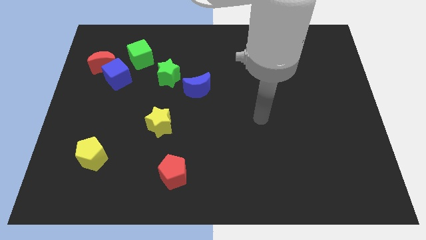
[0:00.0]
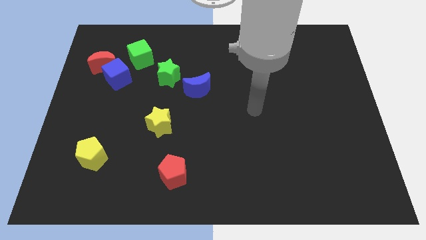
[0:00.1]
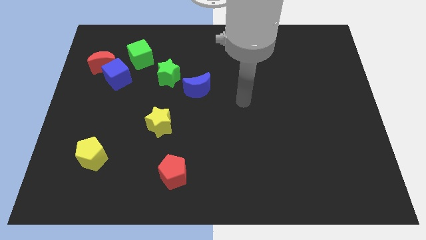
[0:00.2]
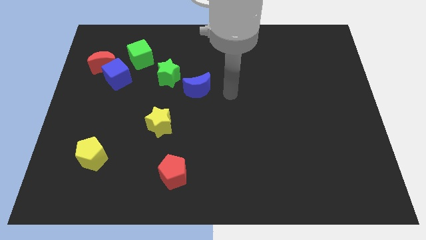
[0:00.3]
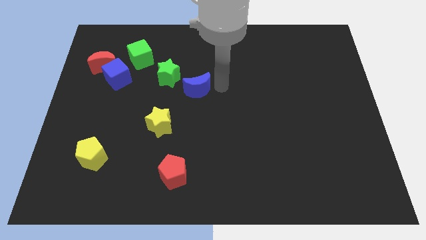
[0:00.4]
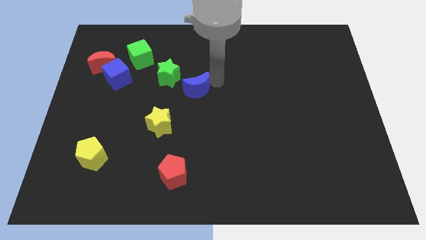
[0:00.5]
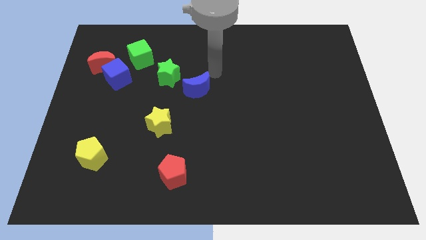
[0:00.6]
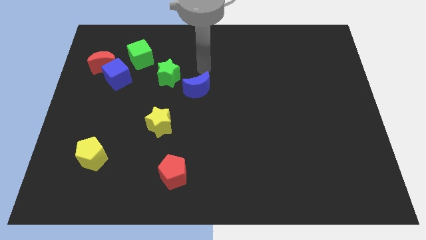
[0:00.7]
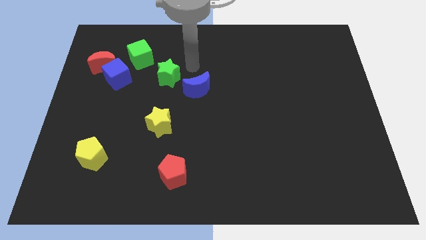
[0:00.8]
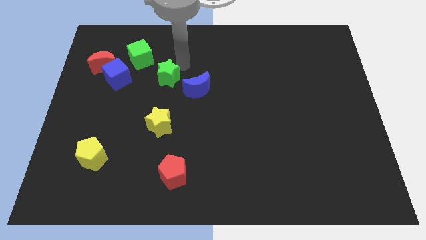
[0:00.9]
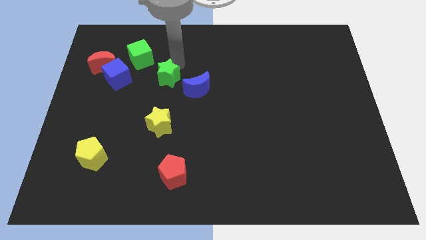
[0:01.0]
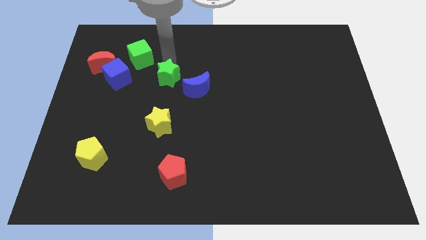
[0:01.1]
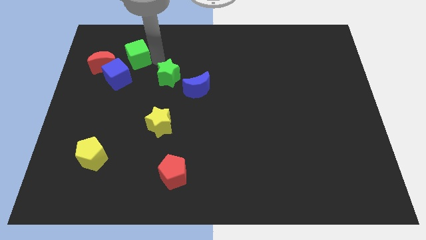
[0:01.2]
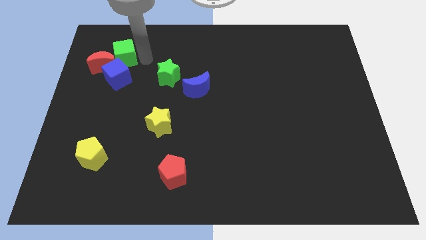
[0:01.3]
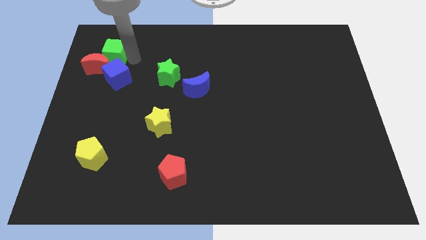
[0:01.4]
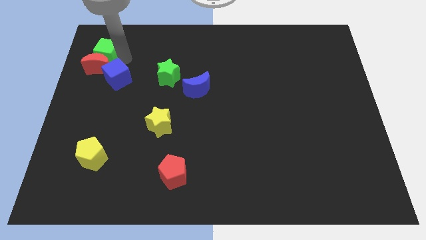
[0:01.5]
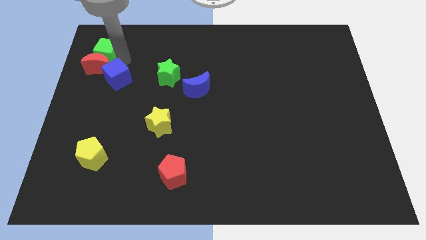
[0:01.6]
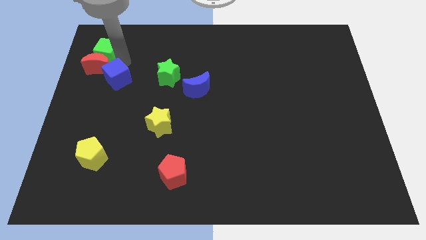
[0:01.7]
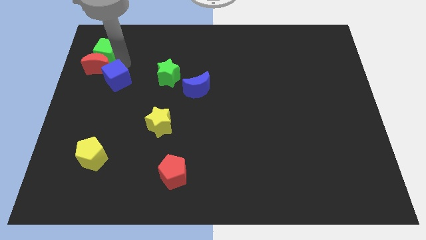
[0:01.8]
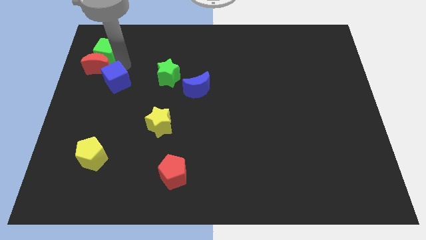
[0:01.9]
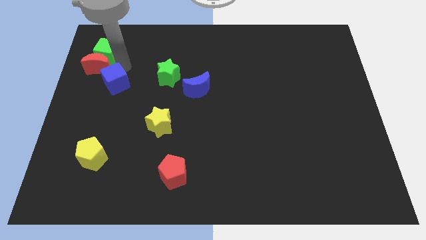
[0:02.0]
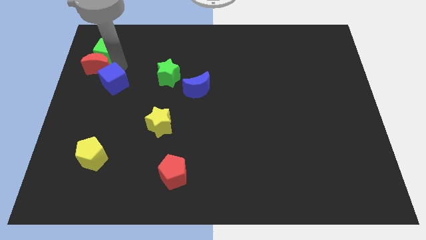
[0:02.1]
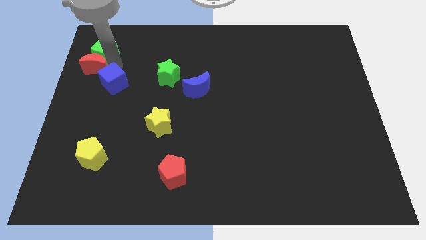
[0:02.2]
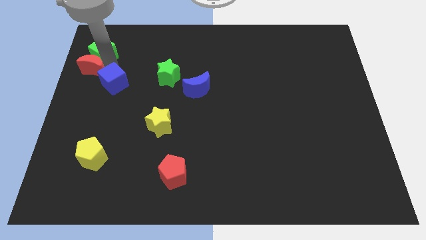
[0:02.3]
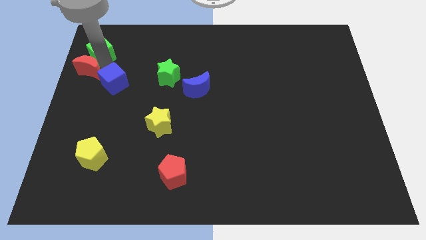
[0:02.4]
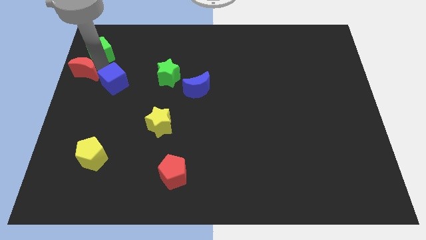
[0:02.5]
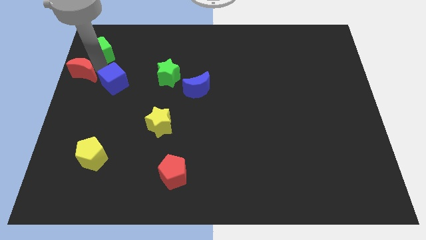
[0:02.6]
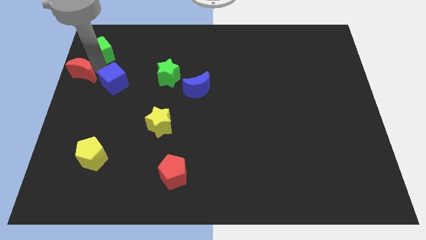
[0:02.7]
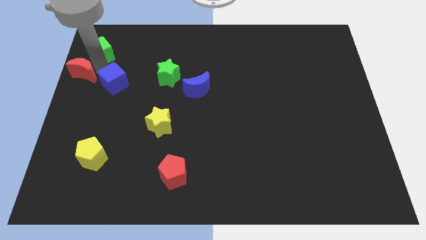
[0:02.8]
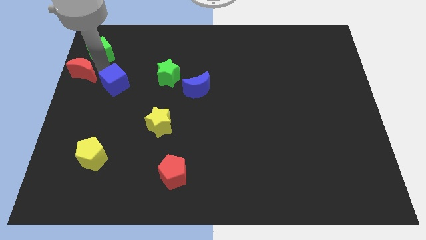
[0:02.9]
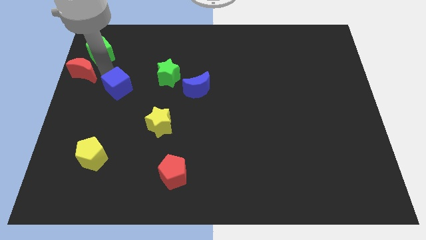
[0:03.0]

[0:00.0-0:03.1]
move the blue cube away from the red moon and green cube

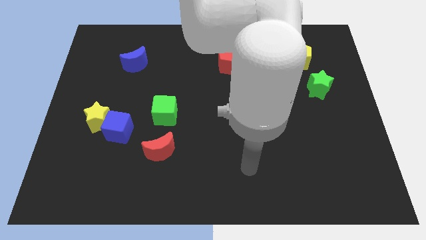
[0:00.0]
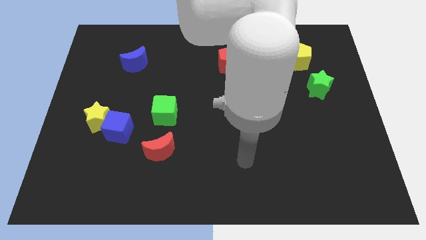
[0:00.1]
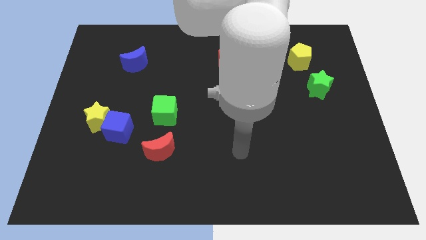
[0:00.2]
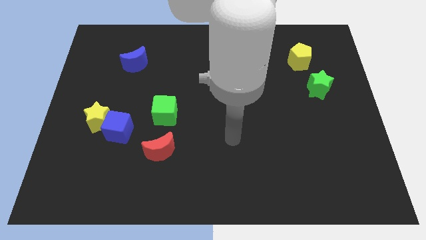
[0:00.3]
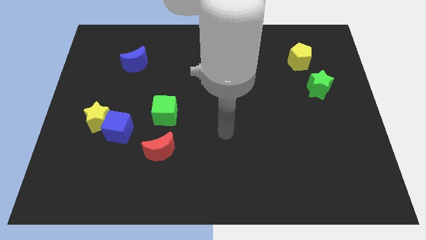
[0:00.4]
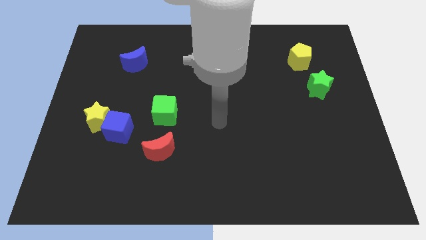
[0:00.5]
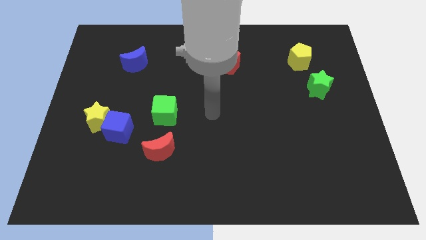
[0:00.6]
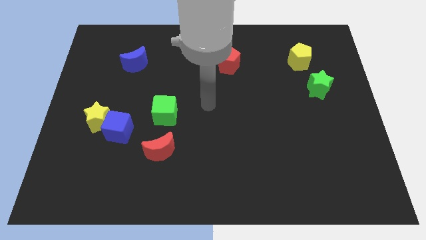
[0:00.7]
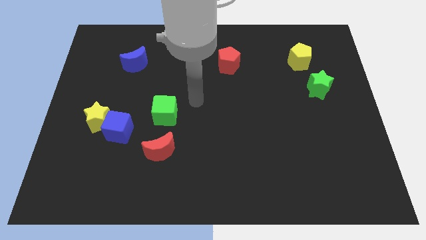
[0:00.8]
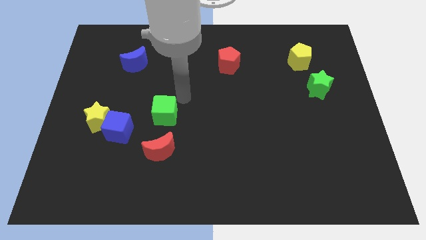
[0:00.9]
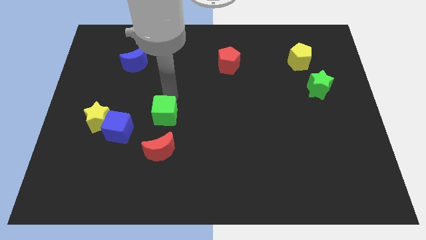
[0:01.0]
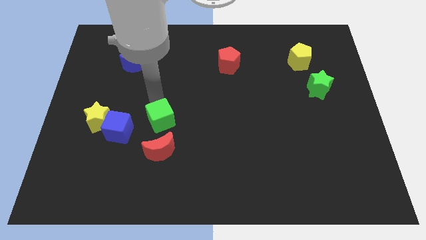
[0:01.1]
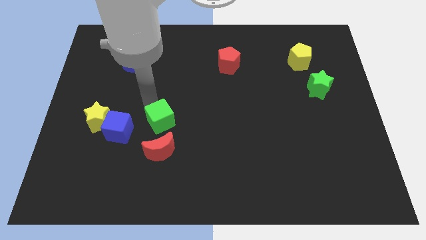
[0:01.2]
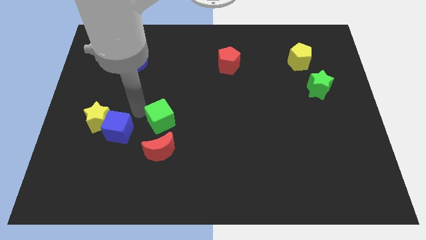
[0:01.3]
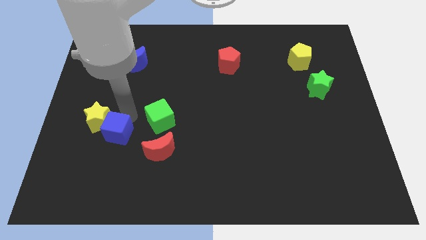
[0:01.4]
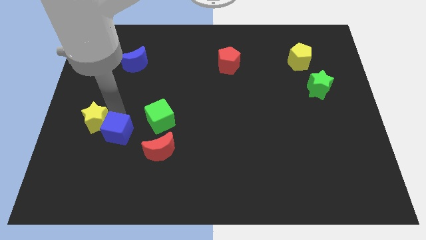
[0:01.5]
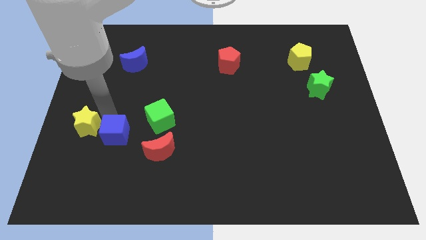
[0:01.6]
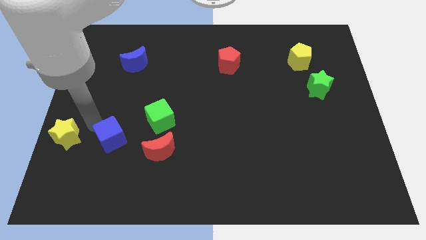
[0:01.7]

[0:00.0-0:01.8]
move the blue cube away from the yellow star

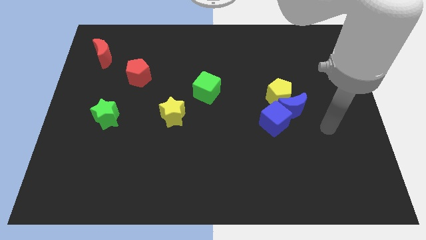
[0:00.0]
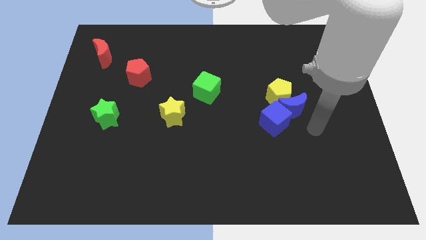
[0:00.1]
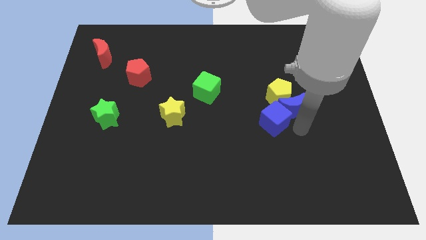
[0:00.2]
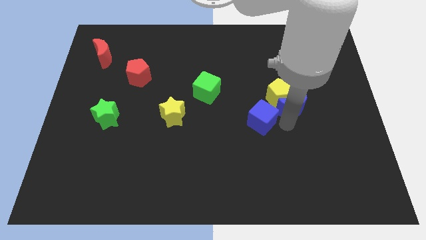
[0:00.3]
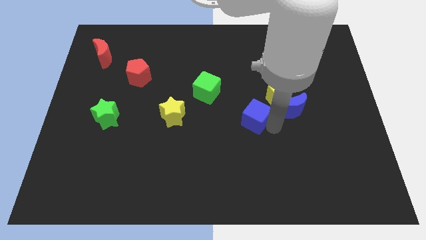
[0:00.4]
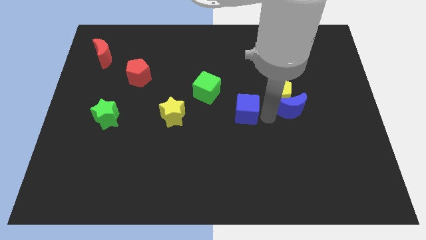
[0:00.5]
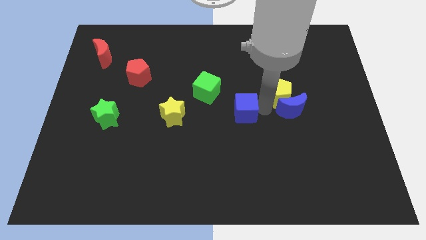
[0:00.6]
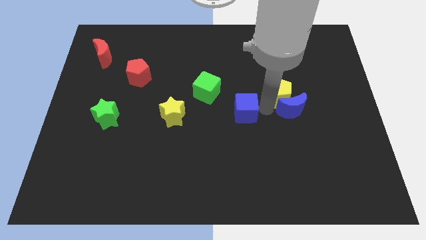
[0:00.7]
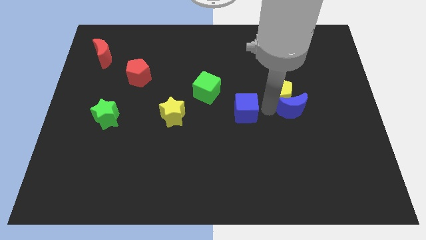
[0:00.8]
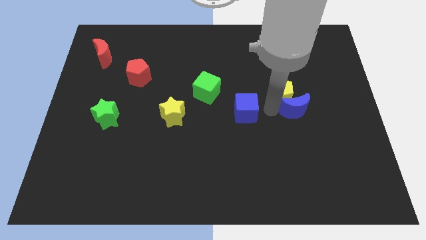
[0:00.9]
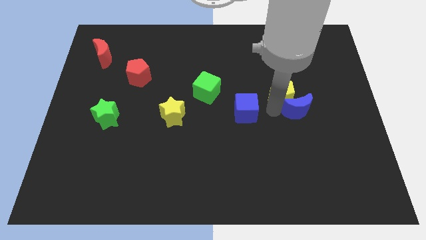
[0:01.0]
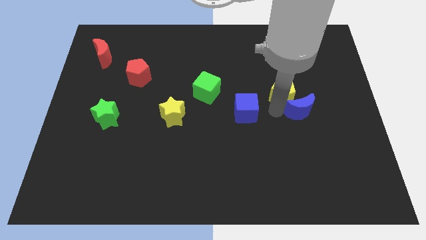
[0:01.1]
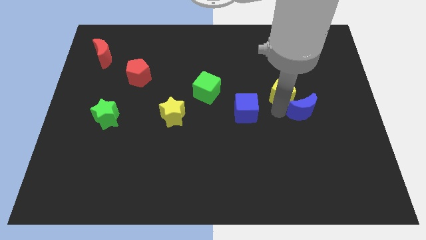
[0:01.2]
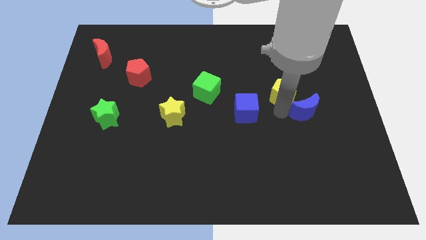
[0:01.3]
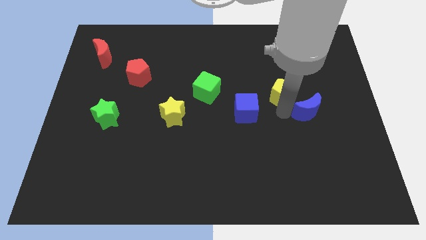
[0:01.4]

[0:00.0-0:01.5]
pull the blue moon apart from the yellow pentagon and blue cube

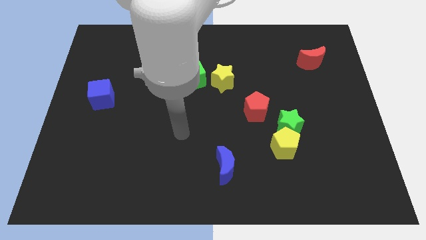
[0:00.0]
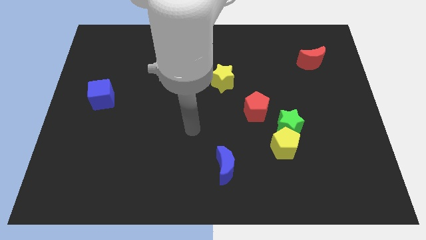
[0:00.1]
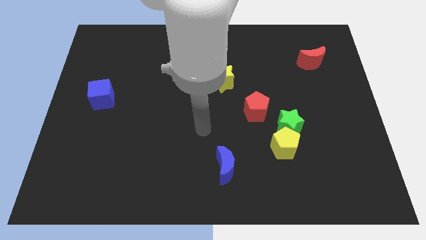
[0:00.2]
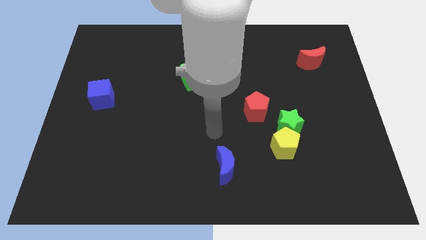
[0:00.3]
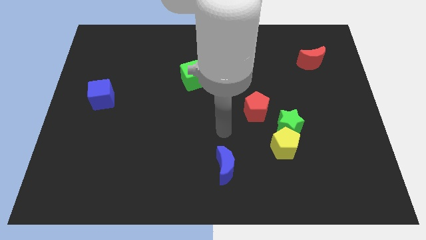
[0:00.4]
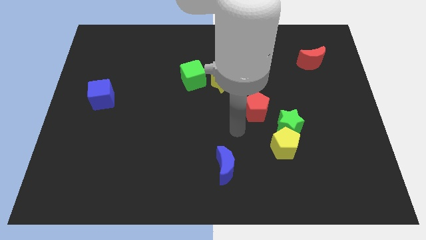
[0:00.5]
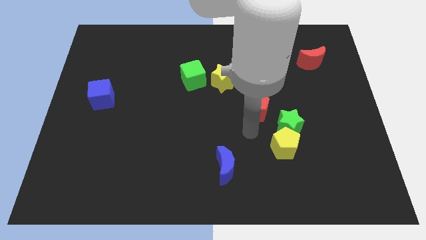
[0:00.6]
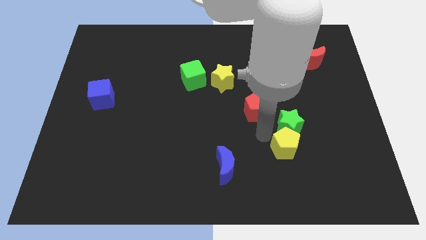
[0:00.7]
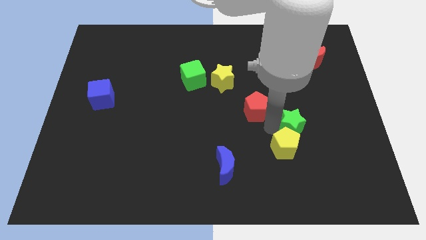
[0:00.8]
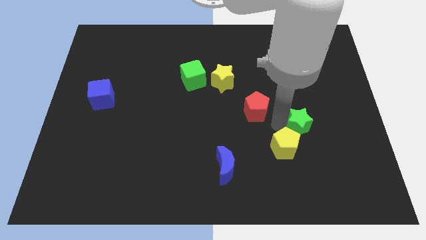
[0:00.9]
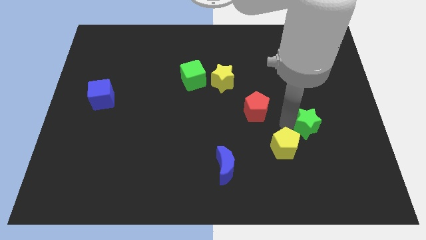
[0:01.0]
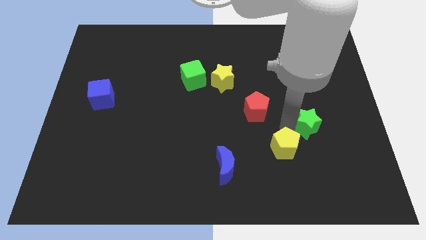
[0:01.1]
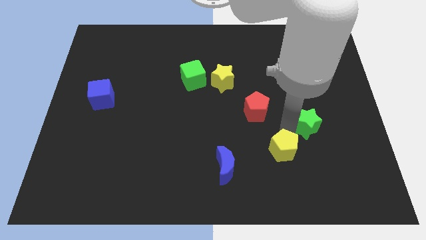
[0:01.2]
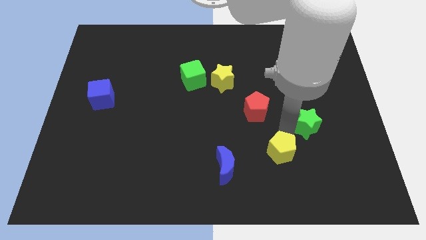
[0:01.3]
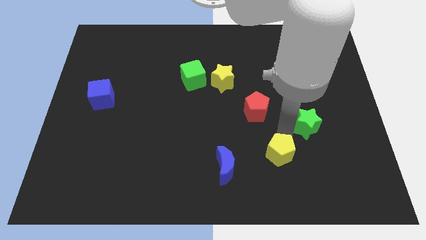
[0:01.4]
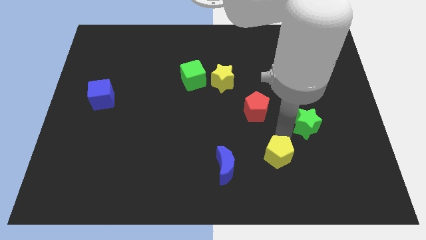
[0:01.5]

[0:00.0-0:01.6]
move the yellow pentagon away from the green star

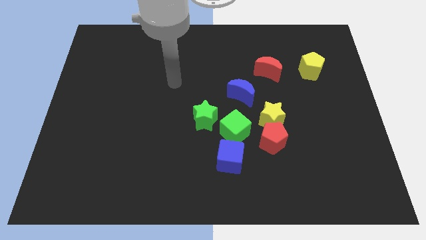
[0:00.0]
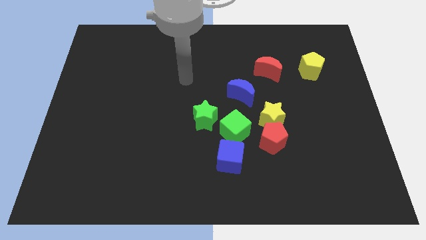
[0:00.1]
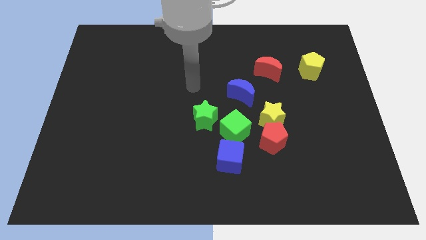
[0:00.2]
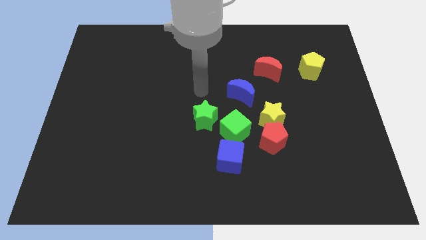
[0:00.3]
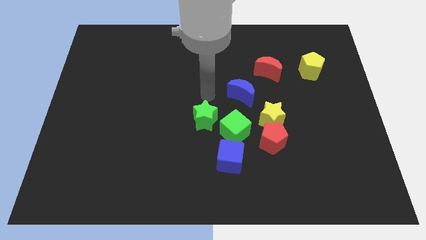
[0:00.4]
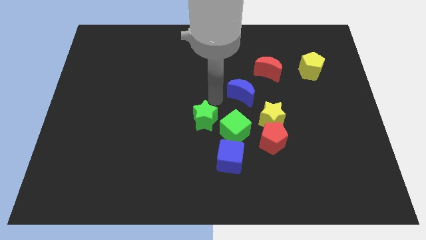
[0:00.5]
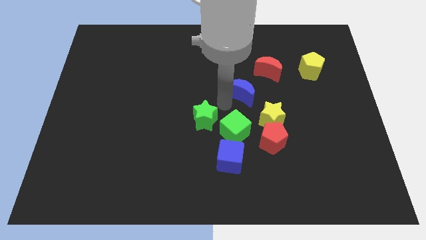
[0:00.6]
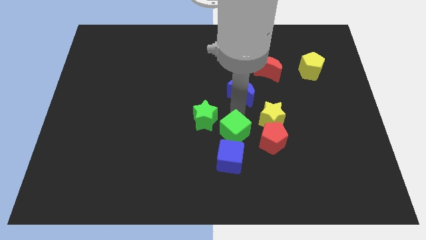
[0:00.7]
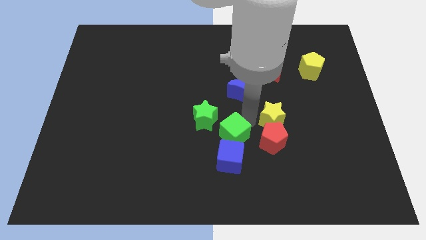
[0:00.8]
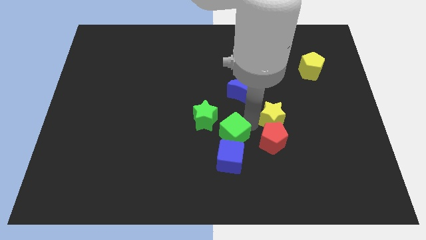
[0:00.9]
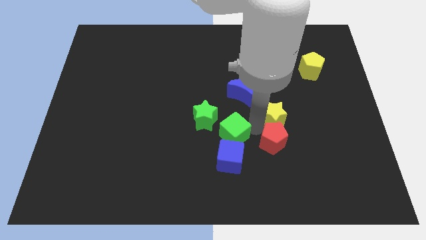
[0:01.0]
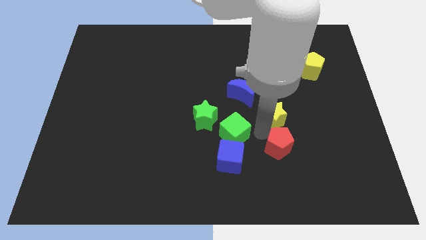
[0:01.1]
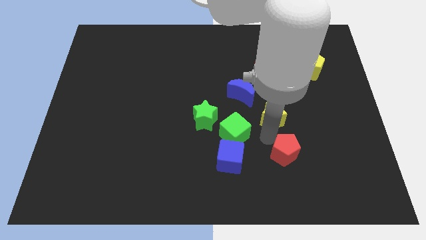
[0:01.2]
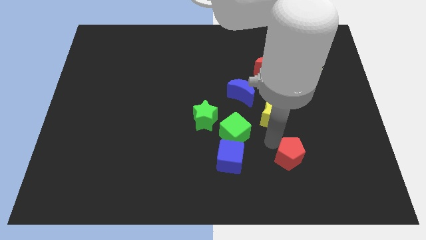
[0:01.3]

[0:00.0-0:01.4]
move the red pentagon away from the yellow star and green cube
